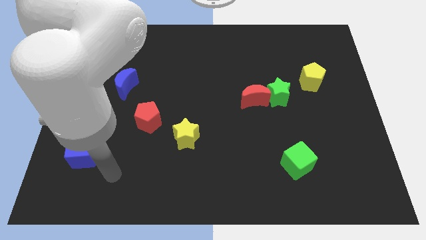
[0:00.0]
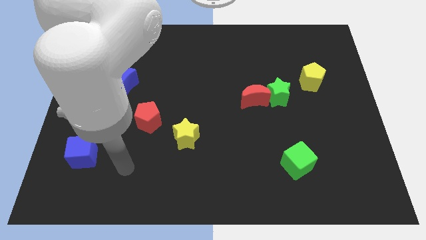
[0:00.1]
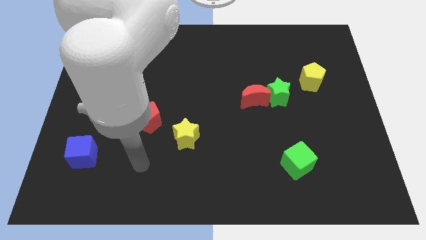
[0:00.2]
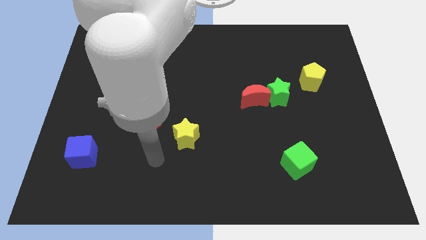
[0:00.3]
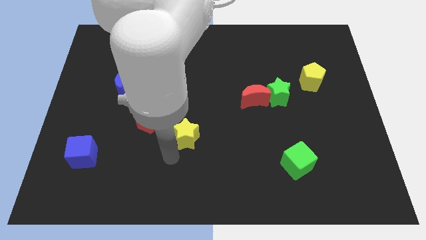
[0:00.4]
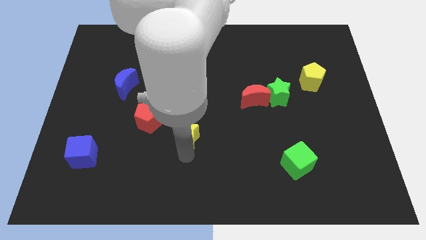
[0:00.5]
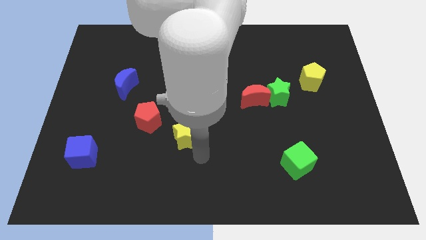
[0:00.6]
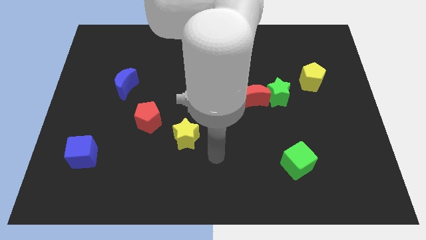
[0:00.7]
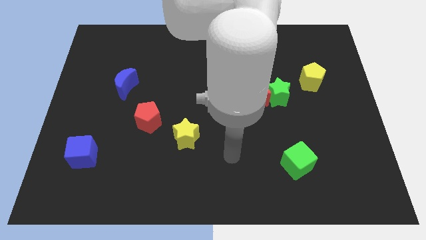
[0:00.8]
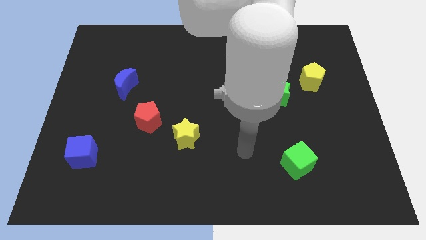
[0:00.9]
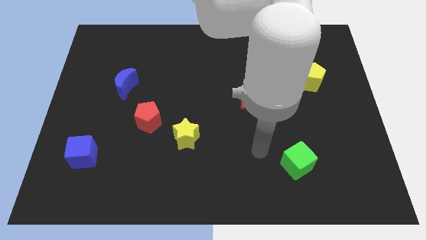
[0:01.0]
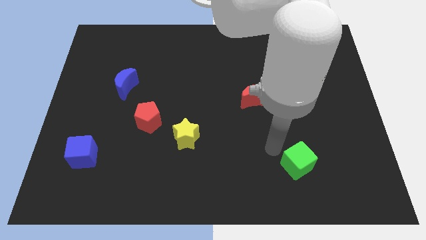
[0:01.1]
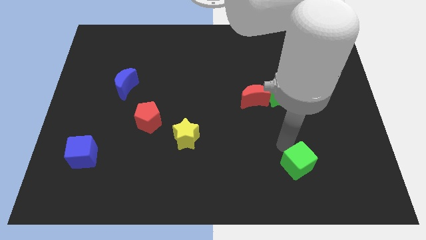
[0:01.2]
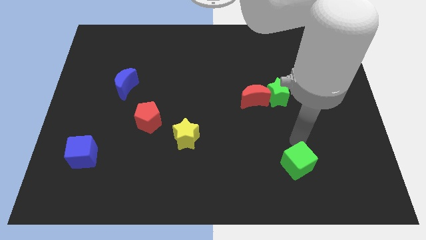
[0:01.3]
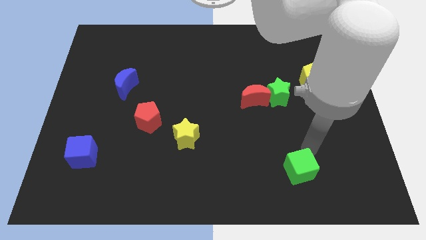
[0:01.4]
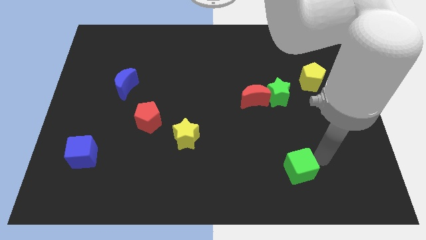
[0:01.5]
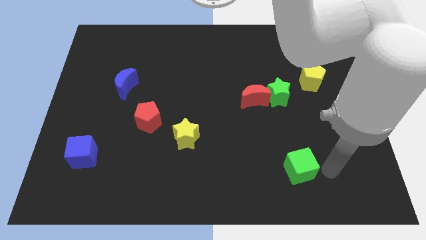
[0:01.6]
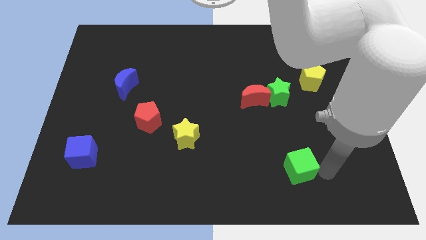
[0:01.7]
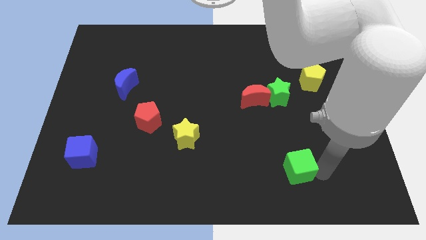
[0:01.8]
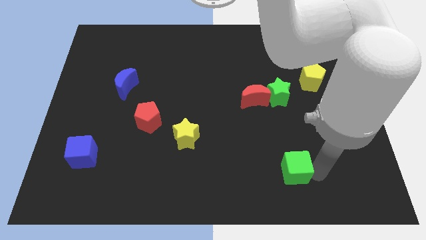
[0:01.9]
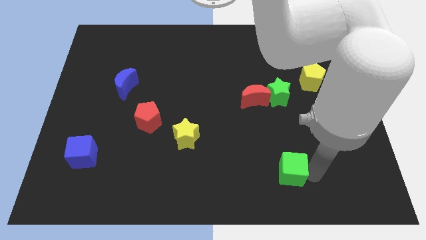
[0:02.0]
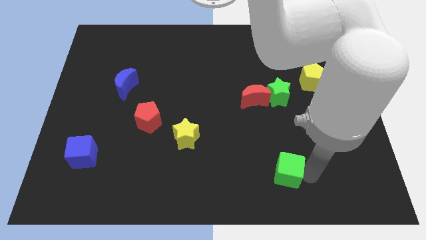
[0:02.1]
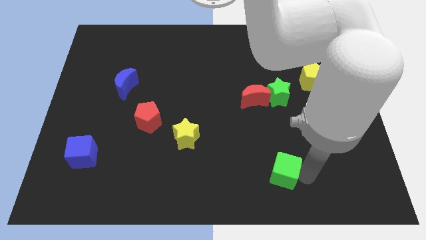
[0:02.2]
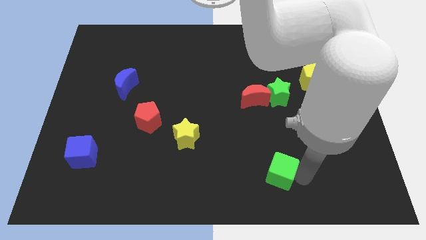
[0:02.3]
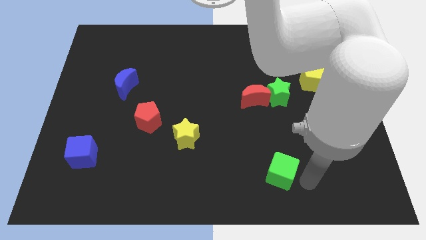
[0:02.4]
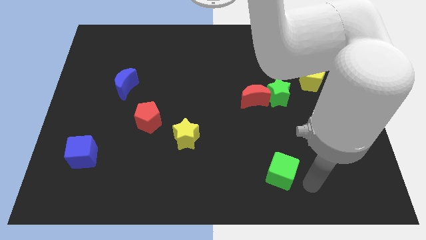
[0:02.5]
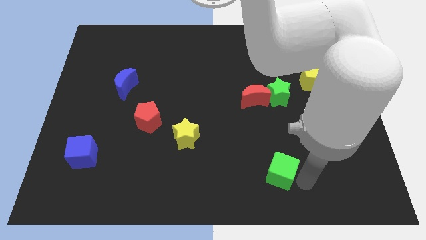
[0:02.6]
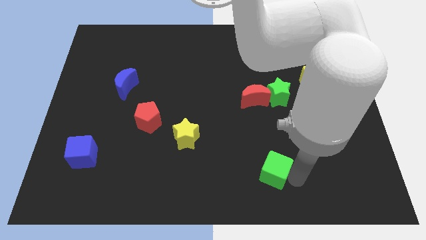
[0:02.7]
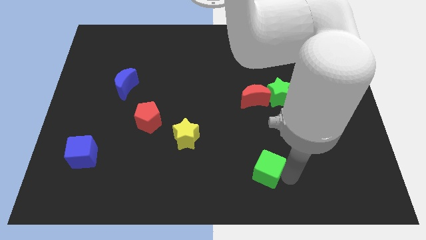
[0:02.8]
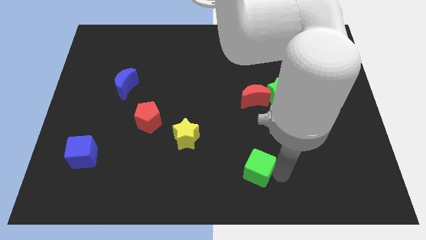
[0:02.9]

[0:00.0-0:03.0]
slightly push the green cube left

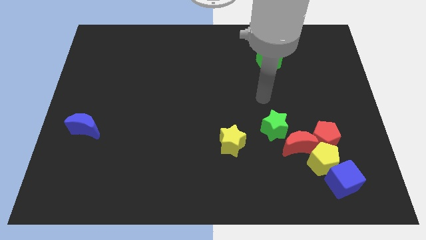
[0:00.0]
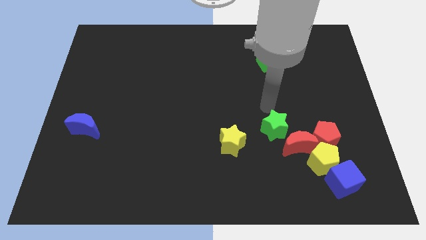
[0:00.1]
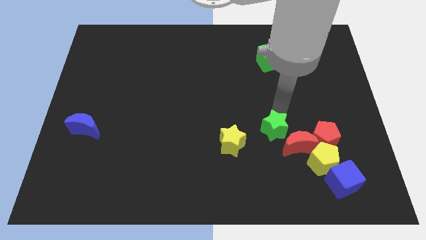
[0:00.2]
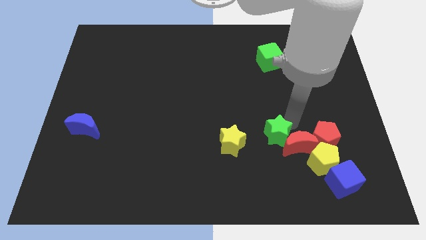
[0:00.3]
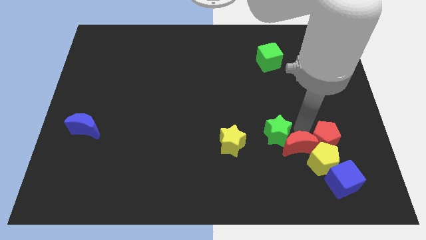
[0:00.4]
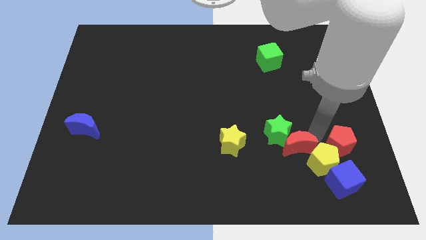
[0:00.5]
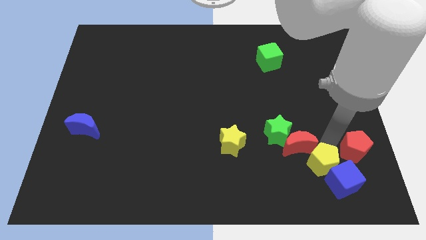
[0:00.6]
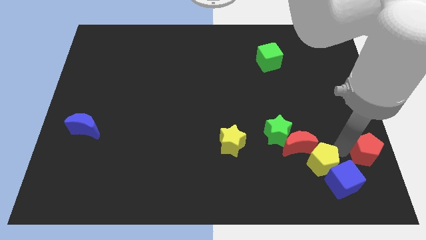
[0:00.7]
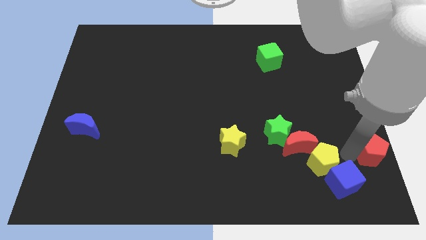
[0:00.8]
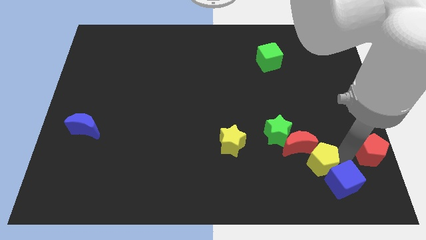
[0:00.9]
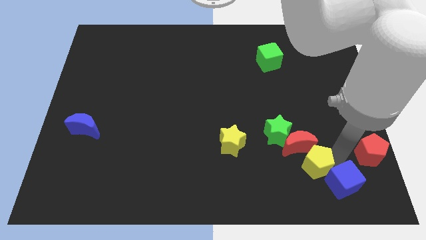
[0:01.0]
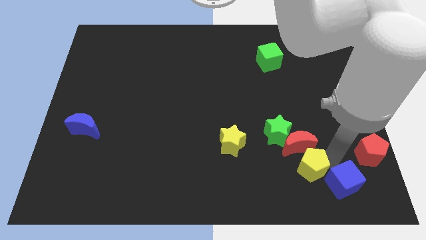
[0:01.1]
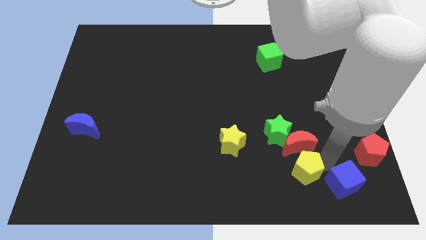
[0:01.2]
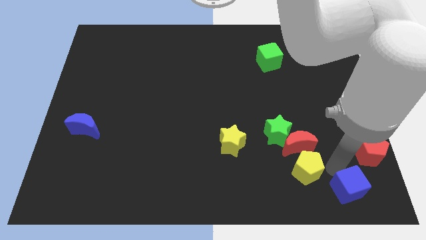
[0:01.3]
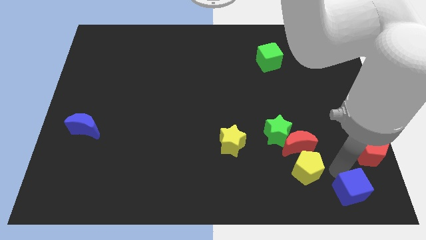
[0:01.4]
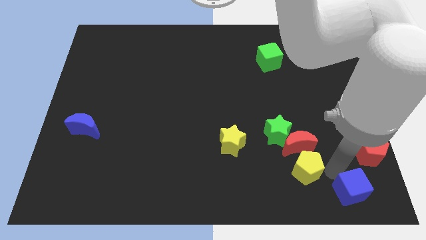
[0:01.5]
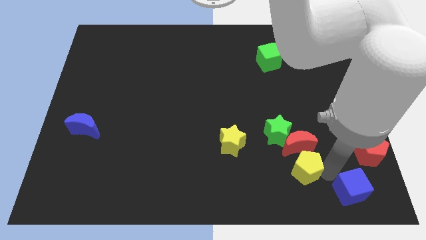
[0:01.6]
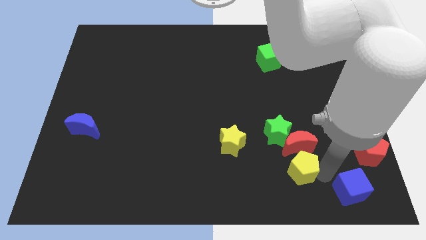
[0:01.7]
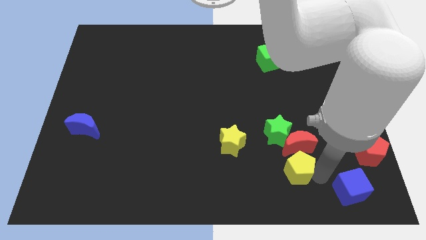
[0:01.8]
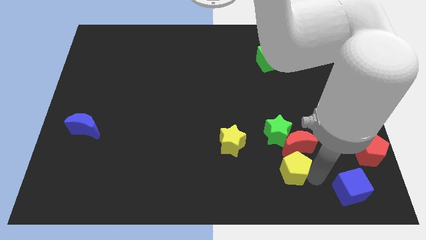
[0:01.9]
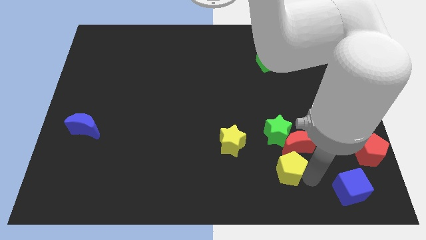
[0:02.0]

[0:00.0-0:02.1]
slide the yellow pentagon to the left somewhat

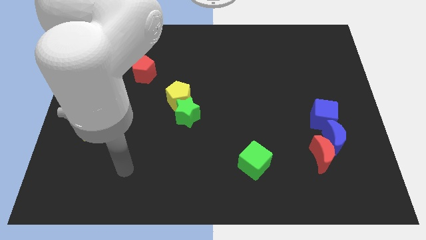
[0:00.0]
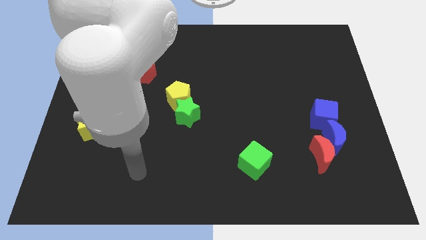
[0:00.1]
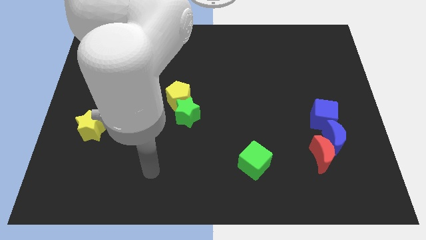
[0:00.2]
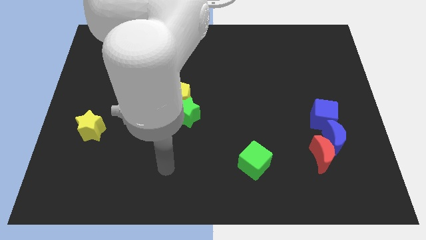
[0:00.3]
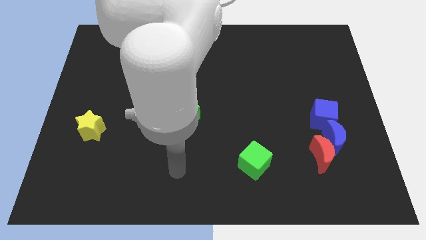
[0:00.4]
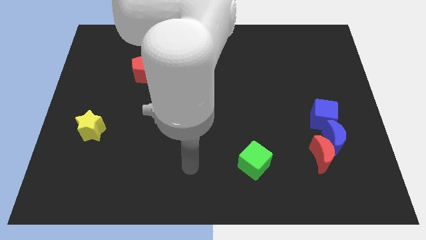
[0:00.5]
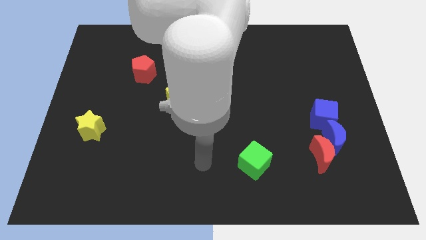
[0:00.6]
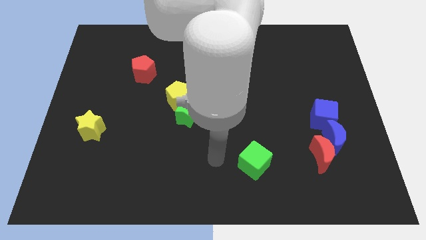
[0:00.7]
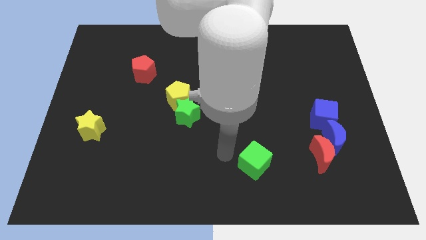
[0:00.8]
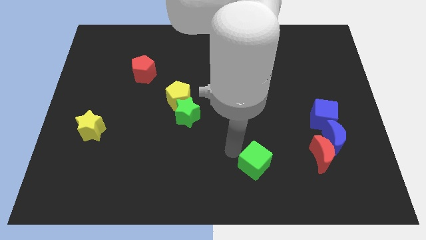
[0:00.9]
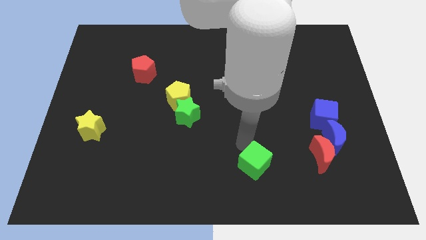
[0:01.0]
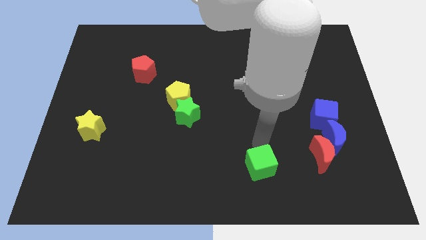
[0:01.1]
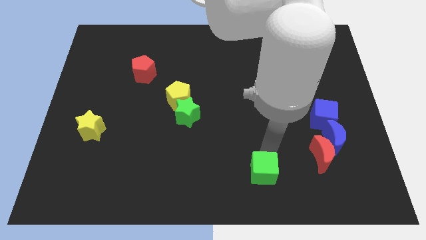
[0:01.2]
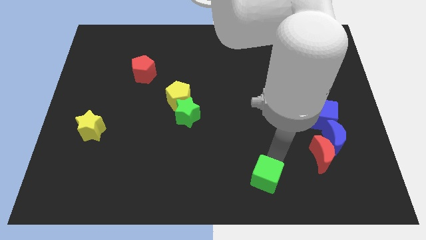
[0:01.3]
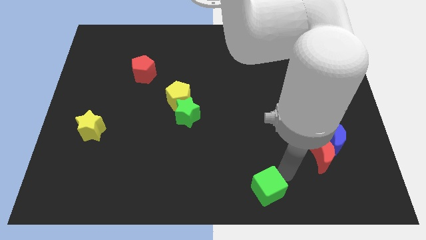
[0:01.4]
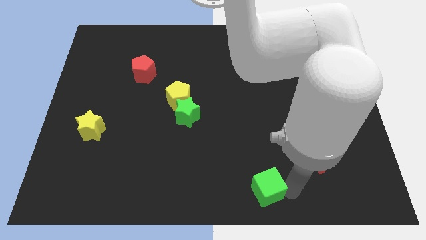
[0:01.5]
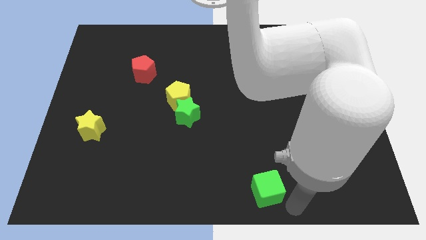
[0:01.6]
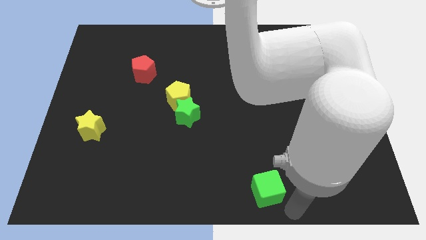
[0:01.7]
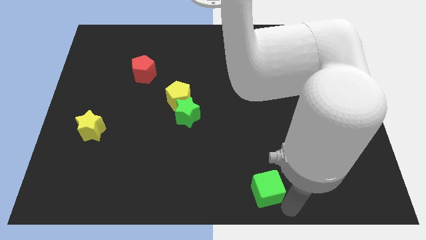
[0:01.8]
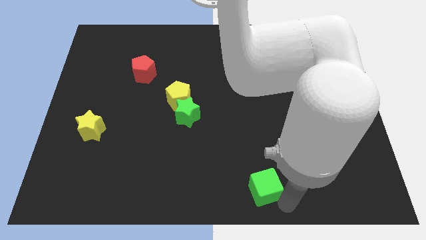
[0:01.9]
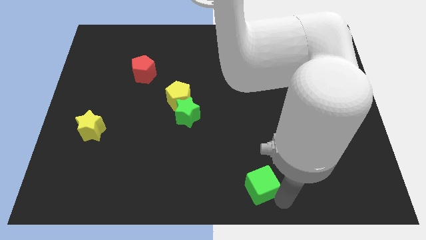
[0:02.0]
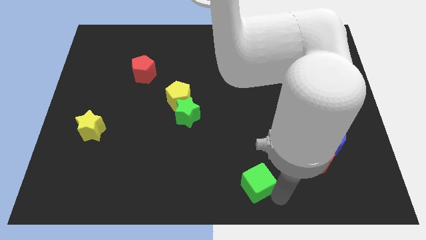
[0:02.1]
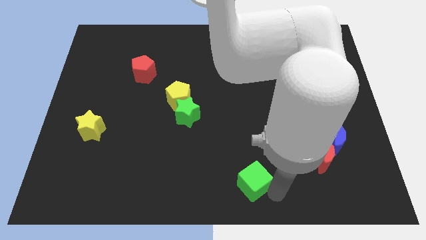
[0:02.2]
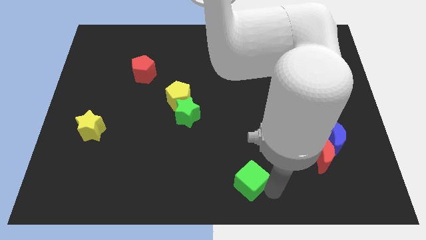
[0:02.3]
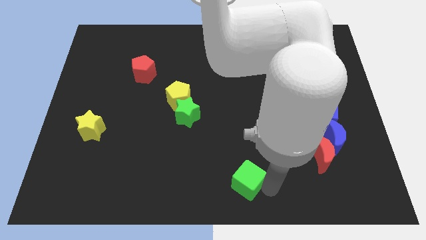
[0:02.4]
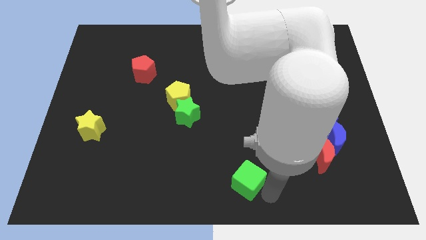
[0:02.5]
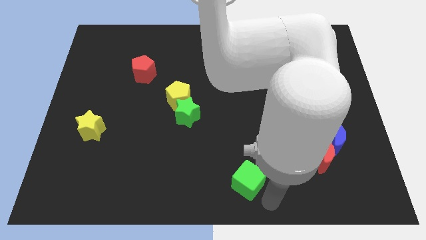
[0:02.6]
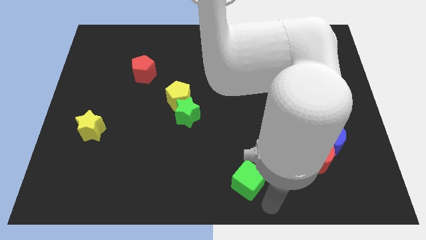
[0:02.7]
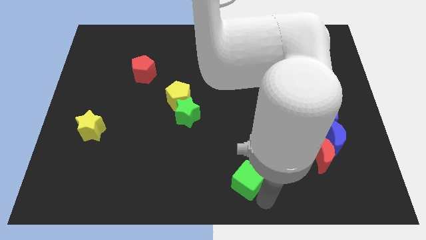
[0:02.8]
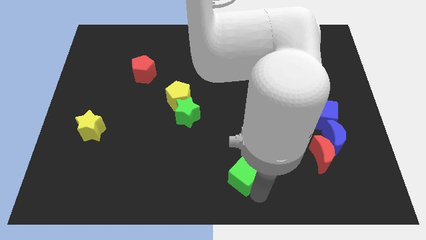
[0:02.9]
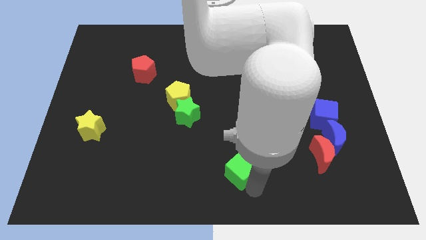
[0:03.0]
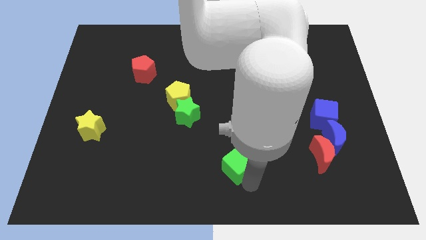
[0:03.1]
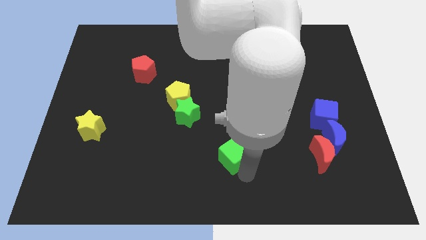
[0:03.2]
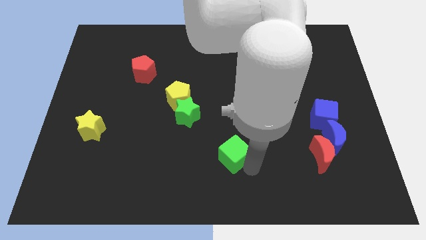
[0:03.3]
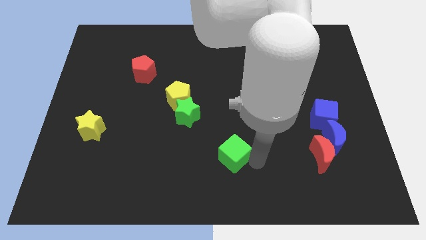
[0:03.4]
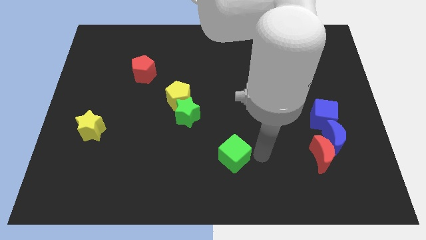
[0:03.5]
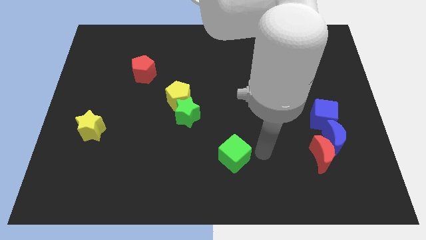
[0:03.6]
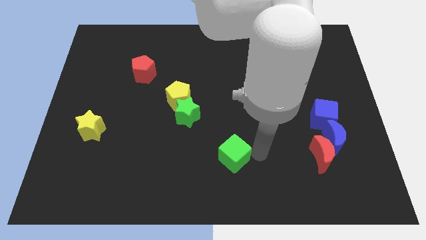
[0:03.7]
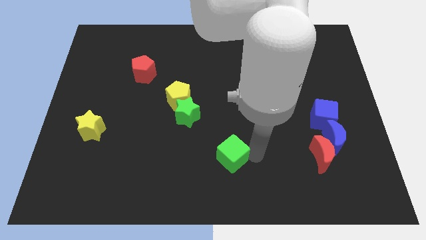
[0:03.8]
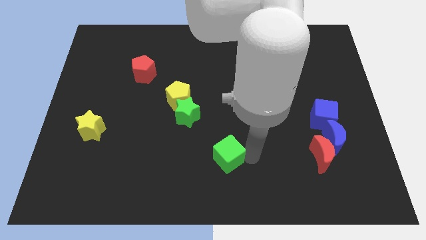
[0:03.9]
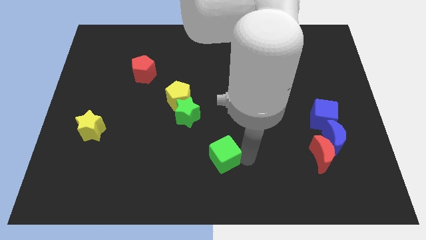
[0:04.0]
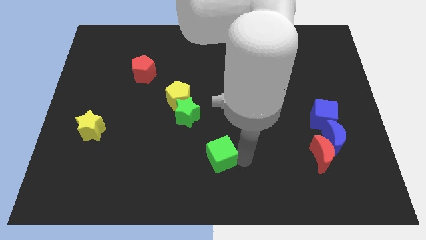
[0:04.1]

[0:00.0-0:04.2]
push the green cube to the left slightly
